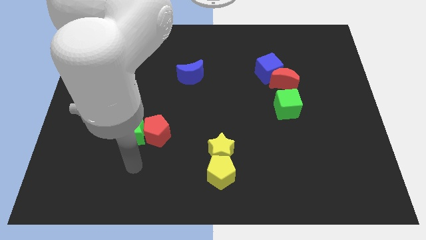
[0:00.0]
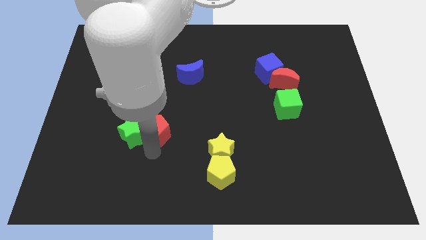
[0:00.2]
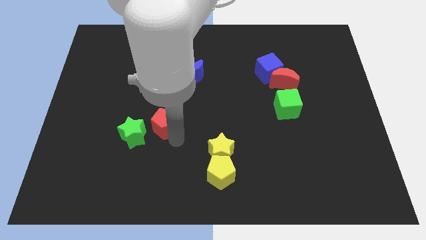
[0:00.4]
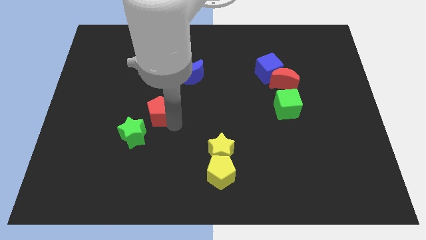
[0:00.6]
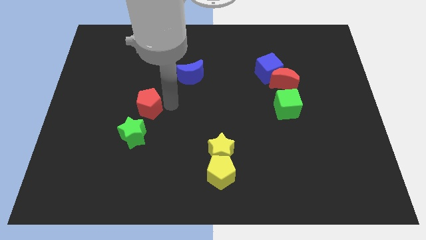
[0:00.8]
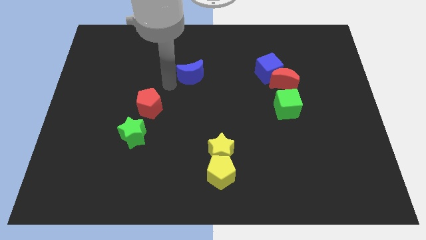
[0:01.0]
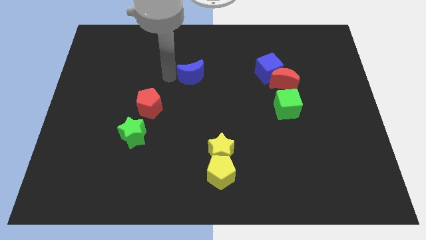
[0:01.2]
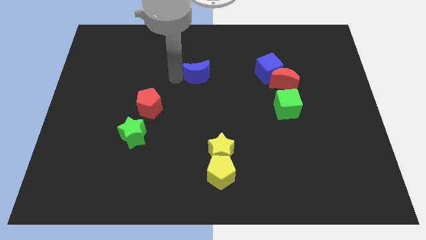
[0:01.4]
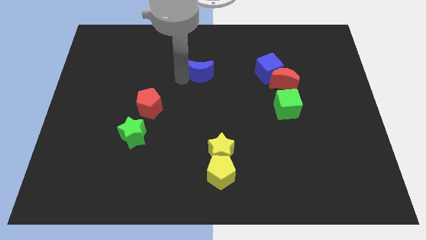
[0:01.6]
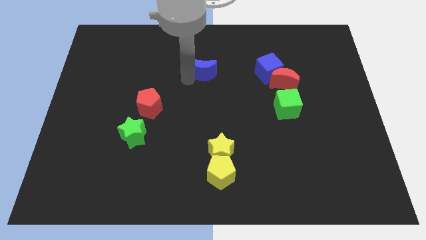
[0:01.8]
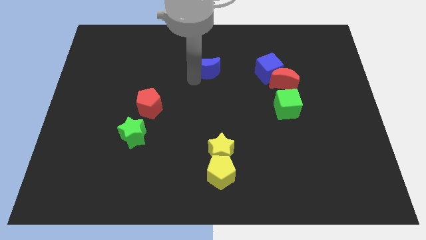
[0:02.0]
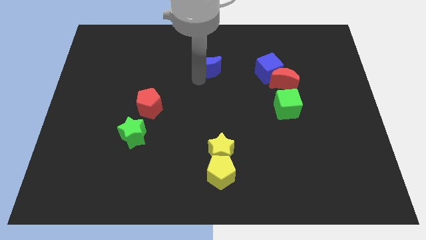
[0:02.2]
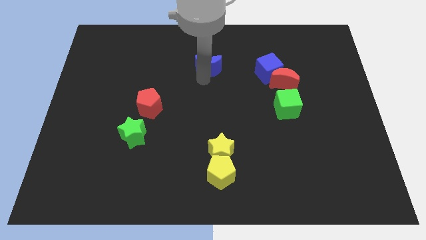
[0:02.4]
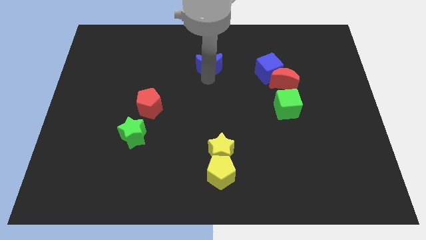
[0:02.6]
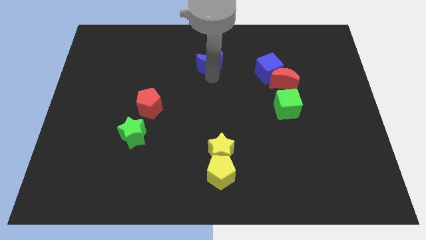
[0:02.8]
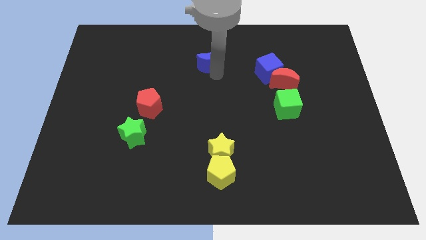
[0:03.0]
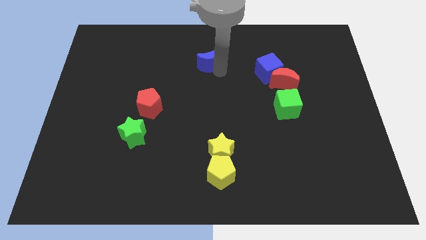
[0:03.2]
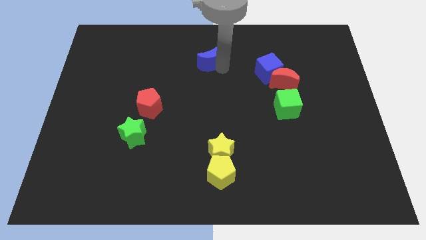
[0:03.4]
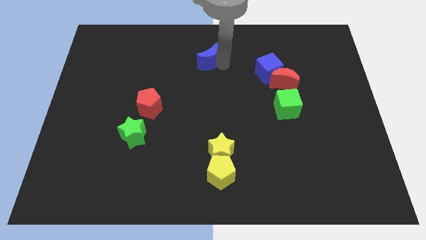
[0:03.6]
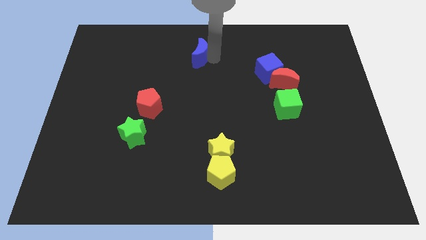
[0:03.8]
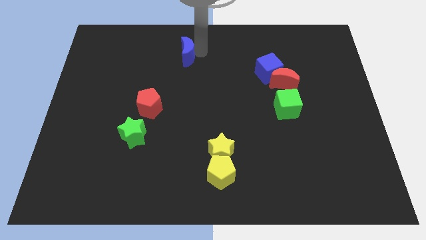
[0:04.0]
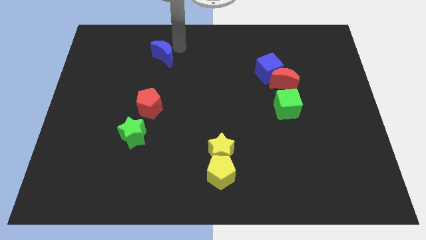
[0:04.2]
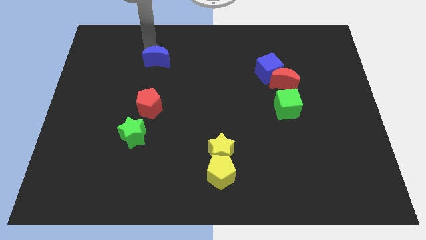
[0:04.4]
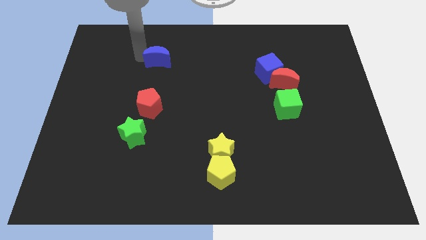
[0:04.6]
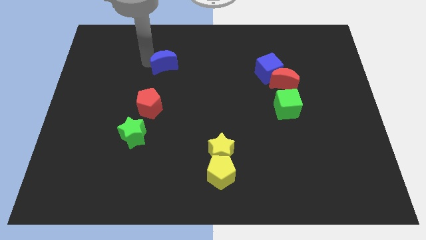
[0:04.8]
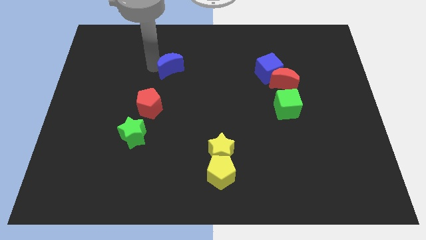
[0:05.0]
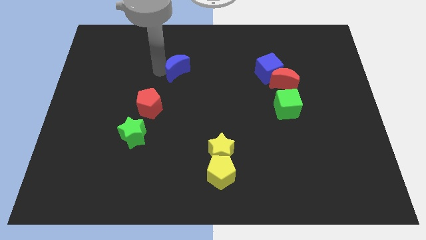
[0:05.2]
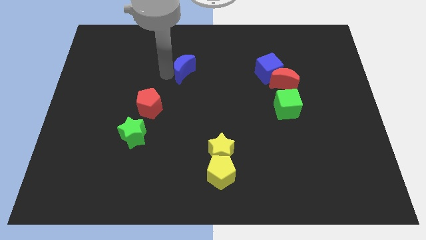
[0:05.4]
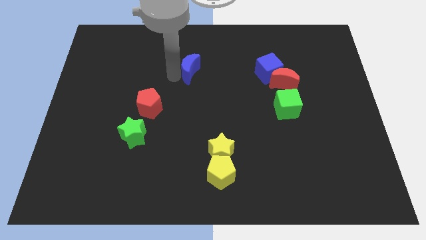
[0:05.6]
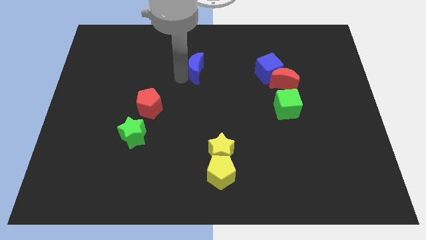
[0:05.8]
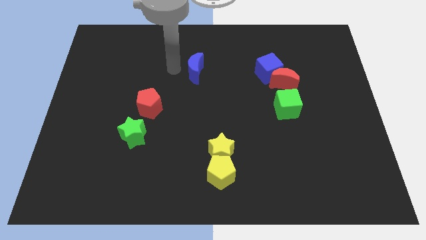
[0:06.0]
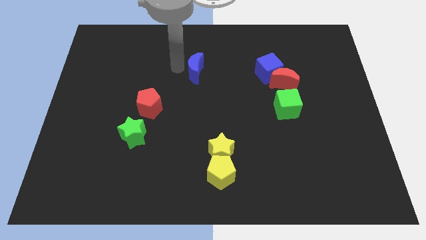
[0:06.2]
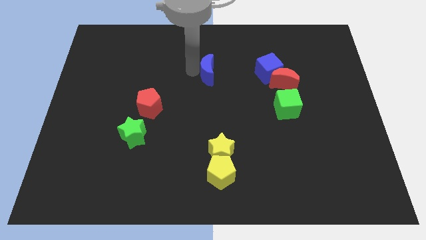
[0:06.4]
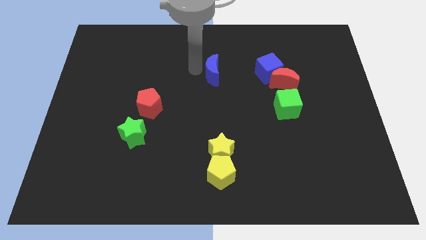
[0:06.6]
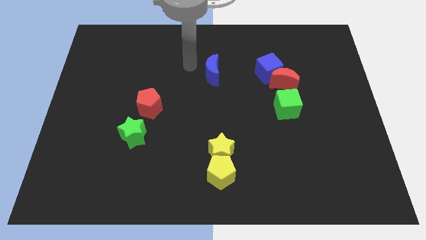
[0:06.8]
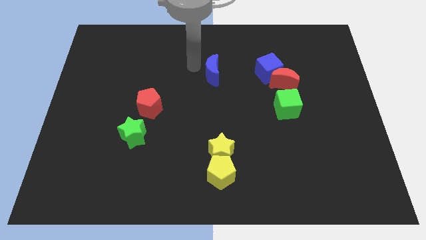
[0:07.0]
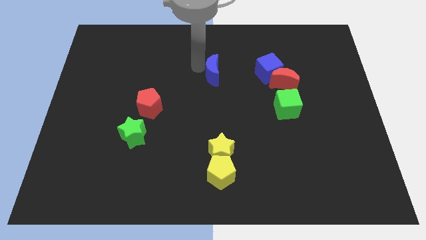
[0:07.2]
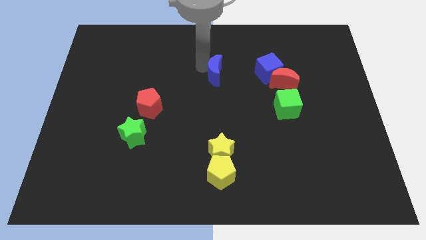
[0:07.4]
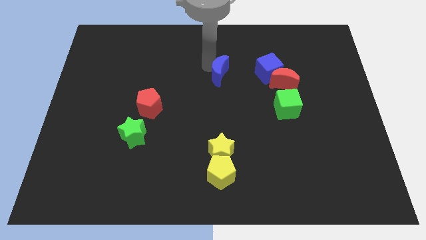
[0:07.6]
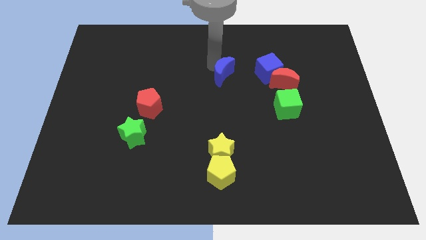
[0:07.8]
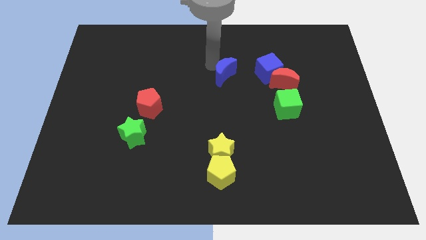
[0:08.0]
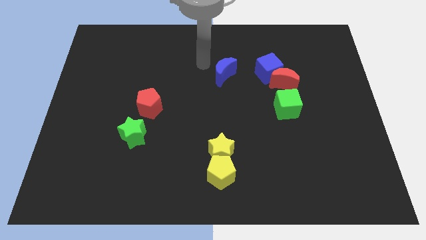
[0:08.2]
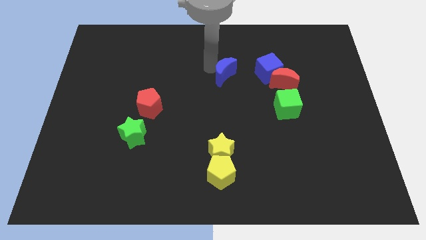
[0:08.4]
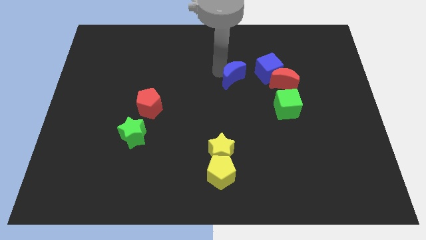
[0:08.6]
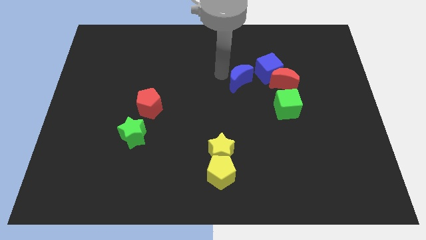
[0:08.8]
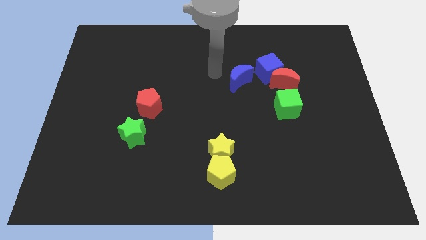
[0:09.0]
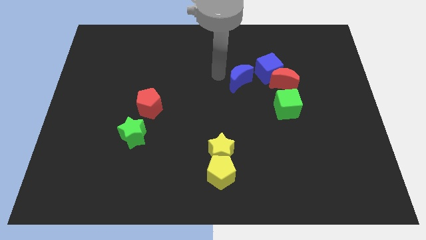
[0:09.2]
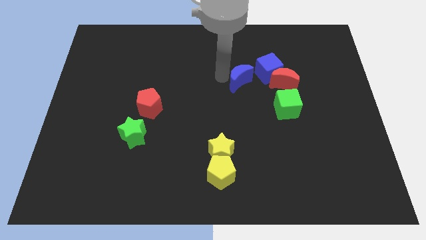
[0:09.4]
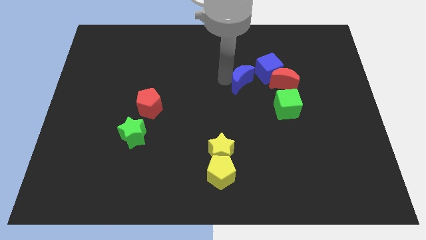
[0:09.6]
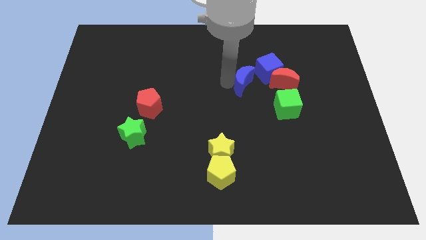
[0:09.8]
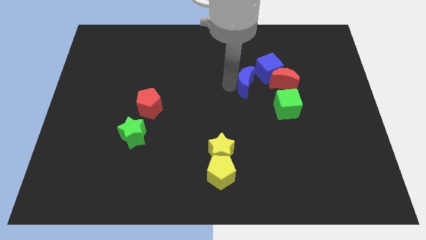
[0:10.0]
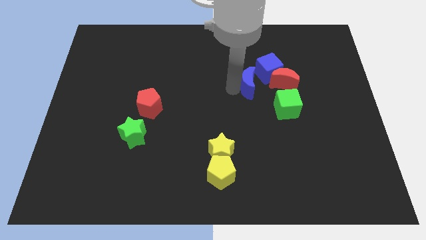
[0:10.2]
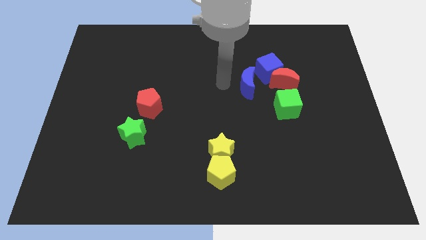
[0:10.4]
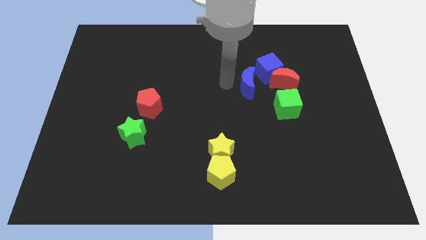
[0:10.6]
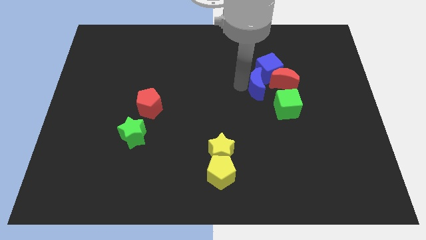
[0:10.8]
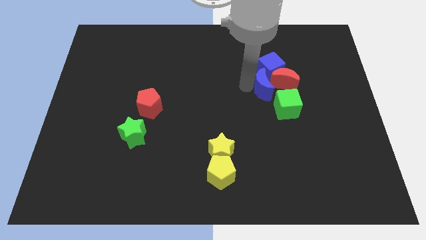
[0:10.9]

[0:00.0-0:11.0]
put the blue moon close to the red moon

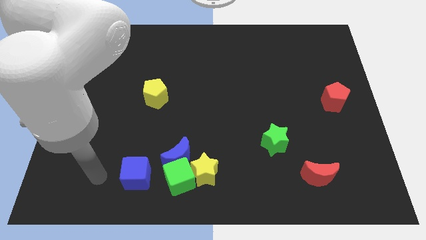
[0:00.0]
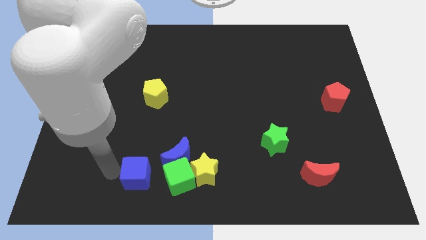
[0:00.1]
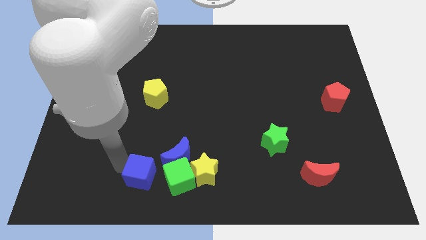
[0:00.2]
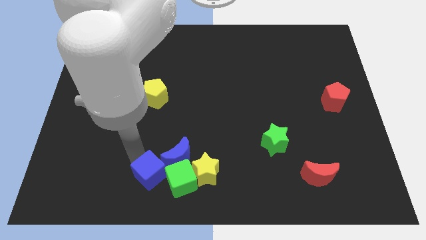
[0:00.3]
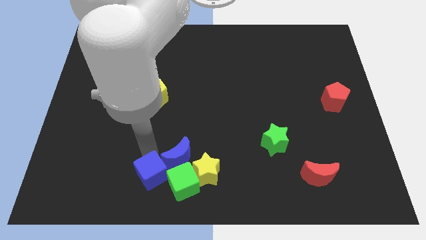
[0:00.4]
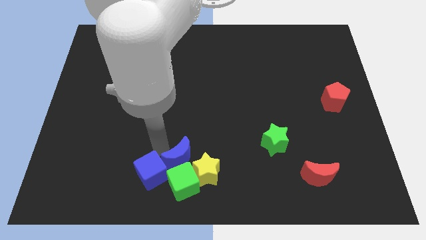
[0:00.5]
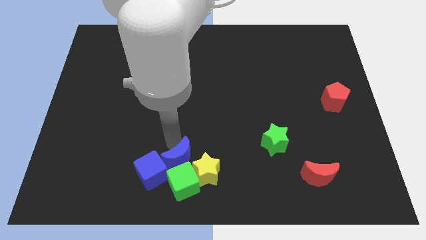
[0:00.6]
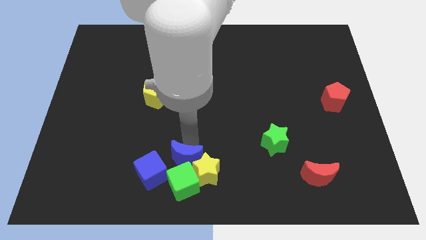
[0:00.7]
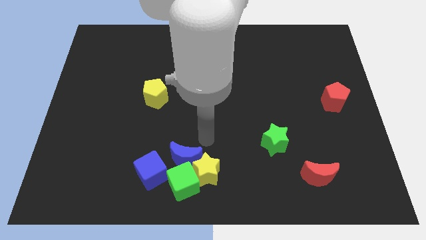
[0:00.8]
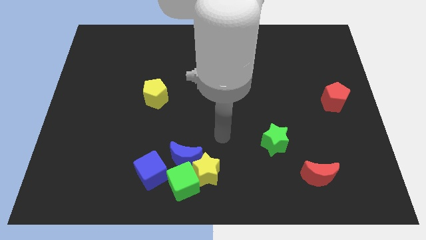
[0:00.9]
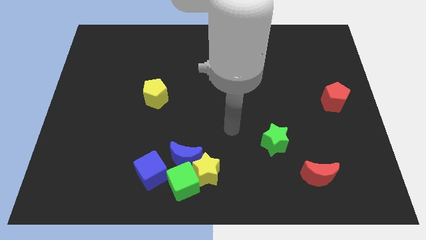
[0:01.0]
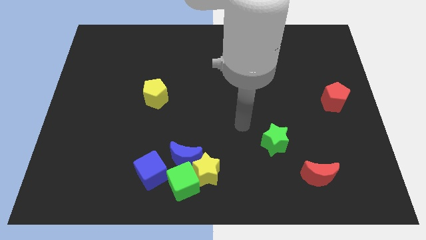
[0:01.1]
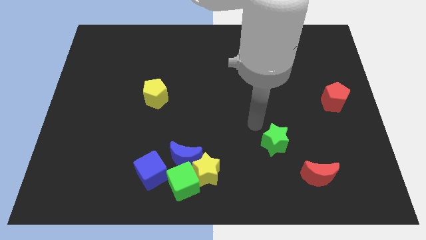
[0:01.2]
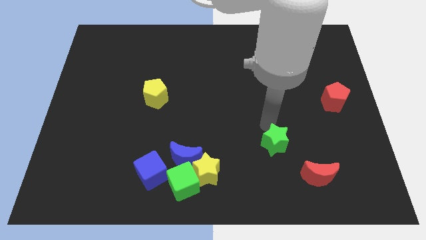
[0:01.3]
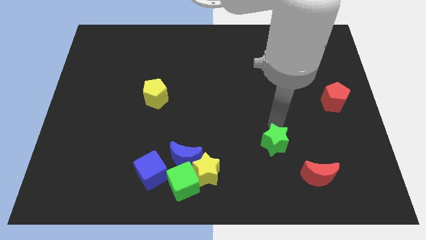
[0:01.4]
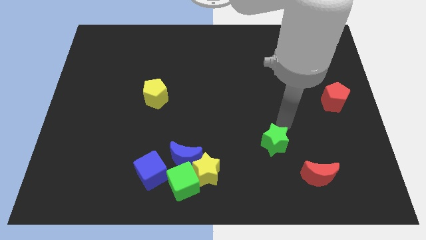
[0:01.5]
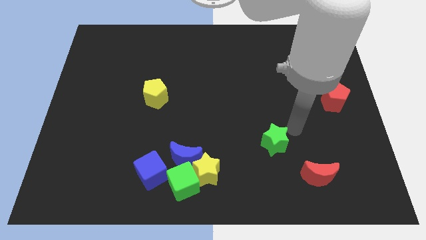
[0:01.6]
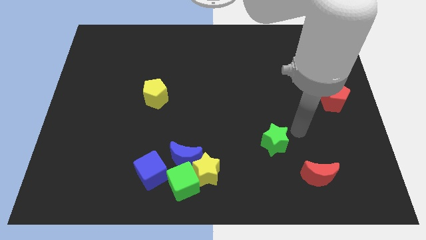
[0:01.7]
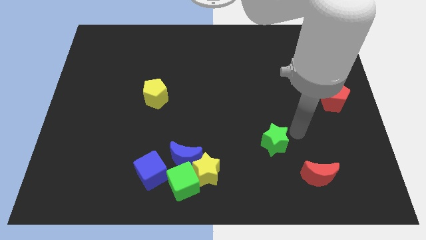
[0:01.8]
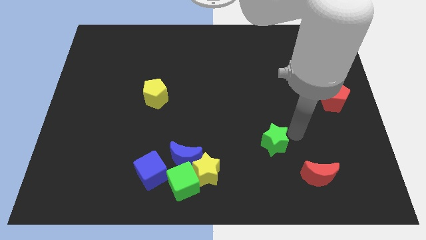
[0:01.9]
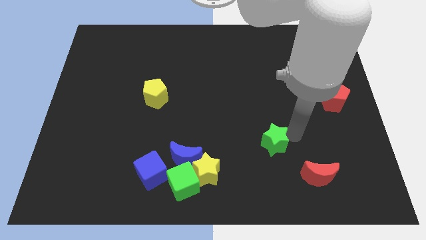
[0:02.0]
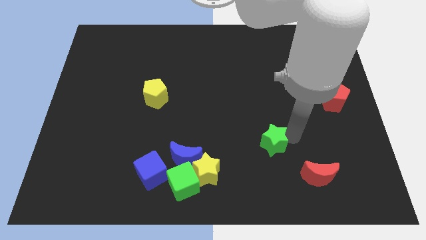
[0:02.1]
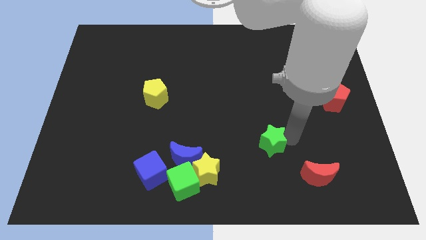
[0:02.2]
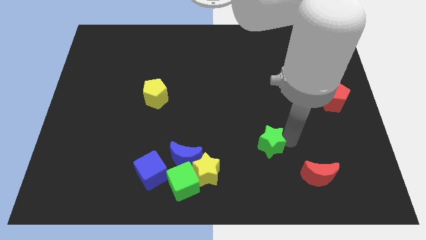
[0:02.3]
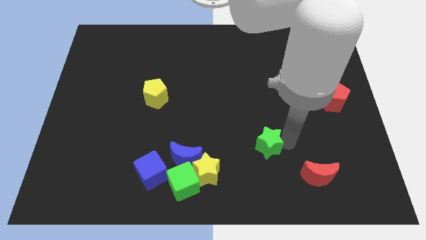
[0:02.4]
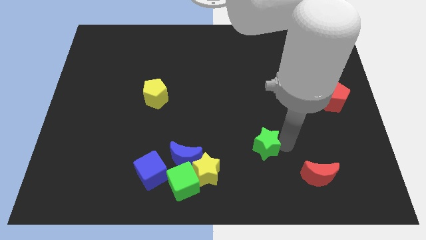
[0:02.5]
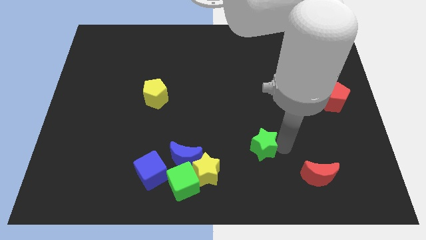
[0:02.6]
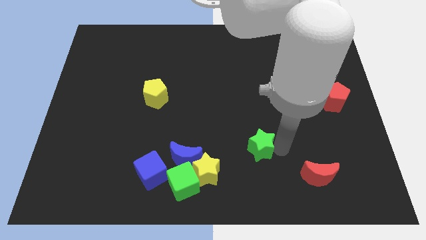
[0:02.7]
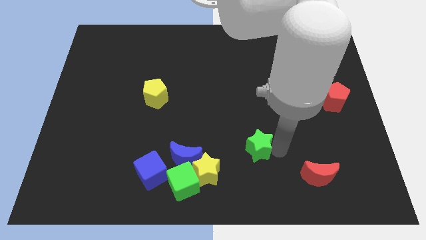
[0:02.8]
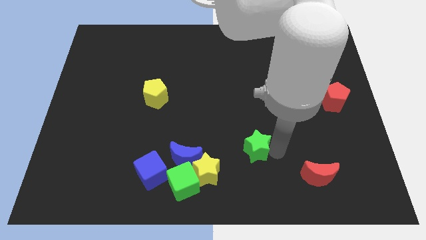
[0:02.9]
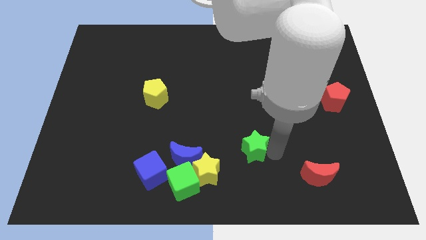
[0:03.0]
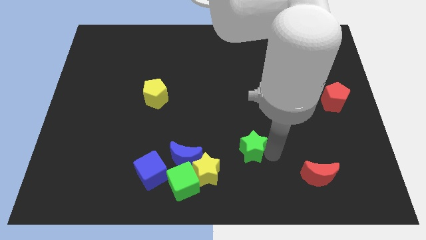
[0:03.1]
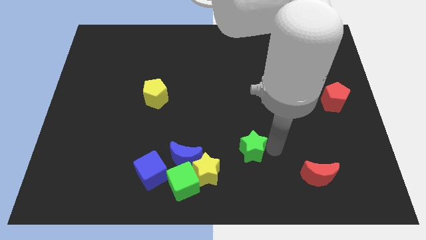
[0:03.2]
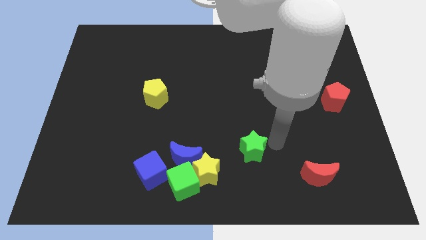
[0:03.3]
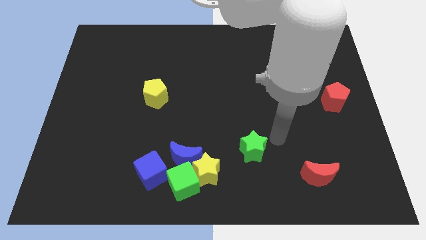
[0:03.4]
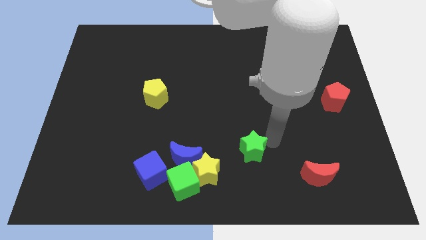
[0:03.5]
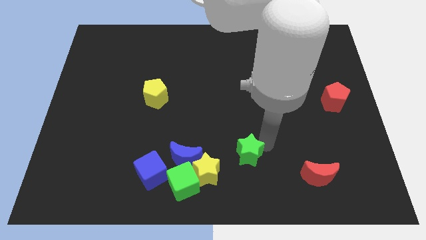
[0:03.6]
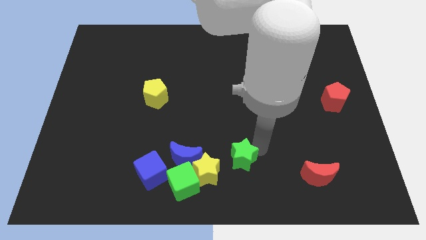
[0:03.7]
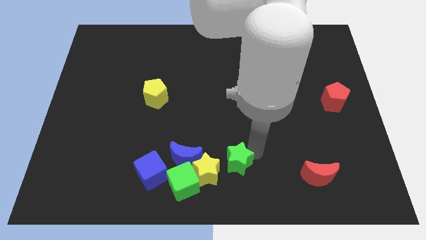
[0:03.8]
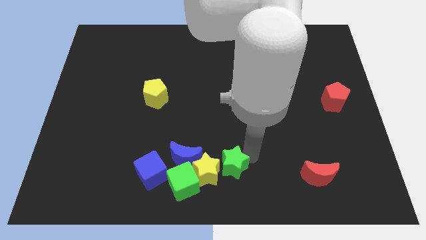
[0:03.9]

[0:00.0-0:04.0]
push the green star next to the yellow star
